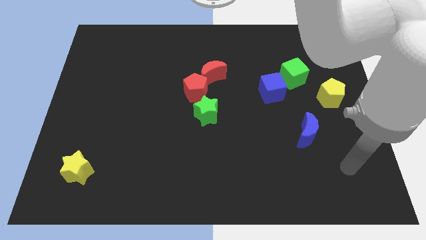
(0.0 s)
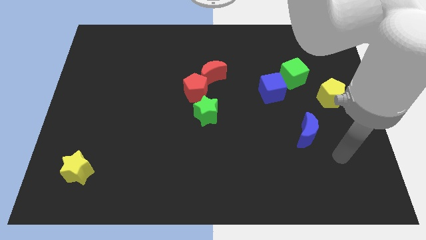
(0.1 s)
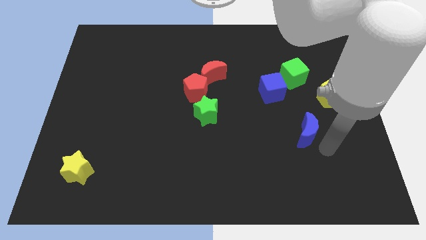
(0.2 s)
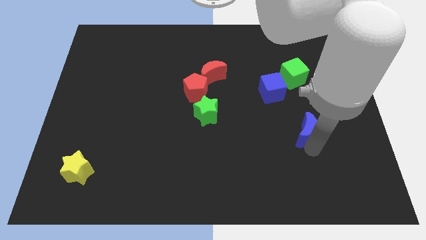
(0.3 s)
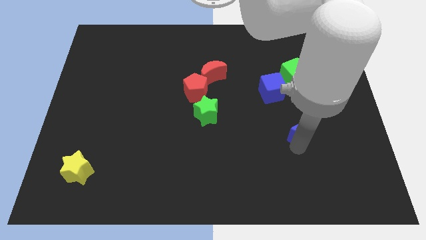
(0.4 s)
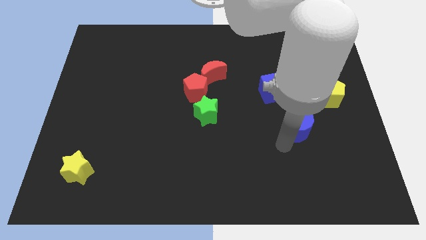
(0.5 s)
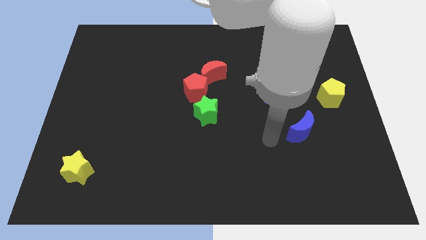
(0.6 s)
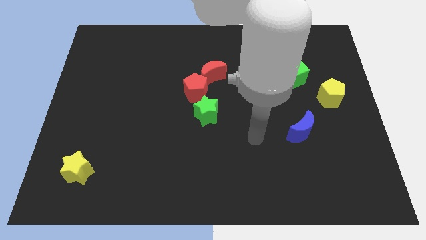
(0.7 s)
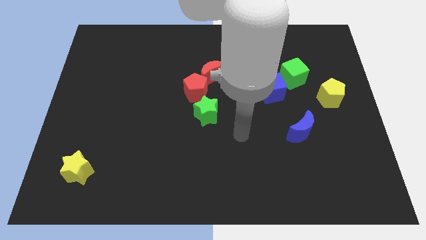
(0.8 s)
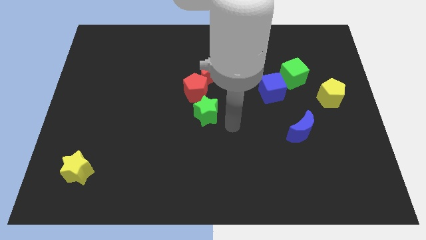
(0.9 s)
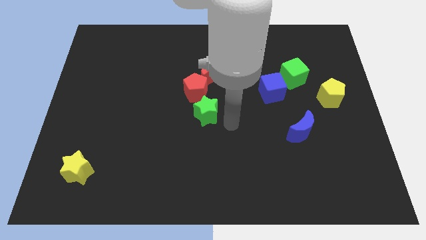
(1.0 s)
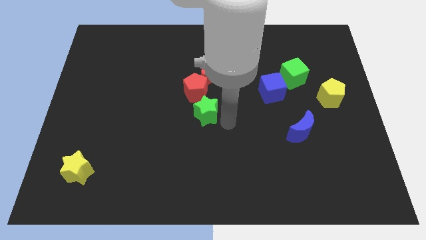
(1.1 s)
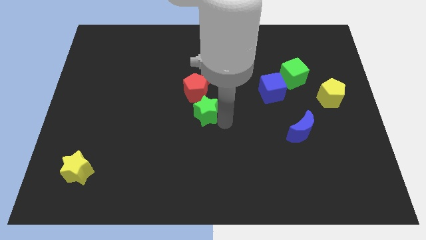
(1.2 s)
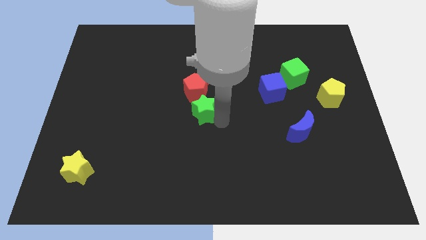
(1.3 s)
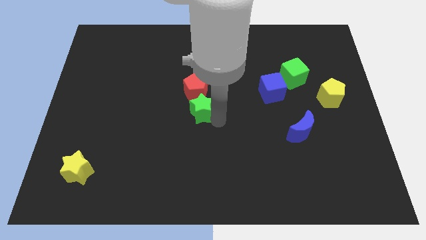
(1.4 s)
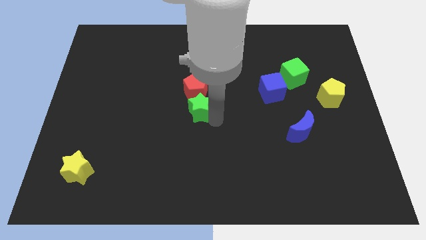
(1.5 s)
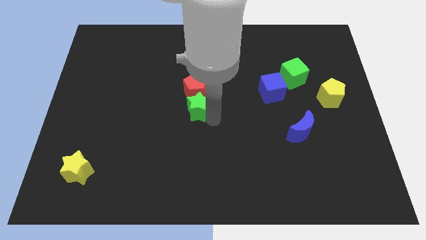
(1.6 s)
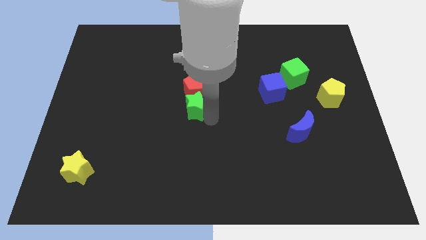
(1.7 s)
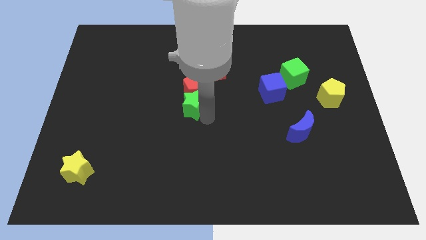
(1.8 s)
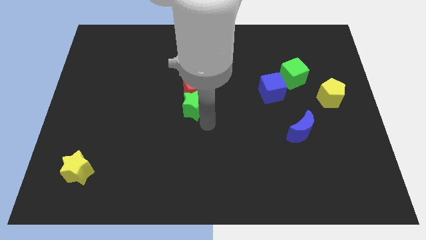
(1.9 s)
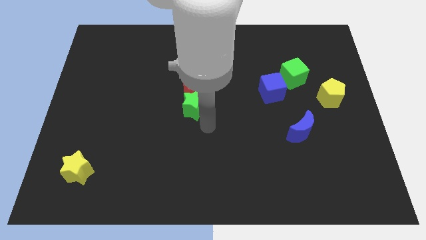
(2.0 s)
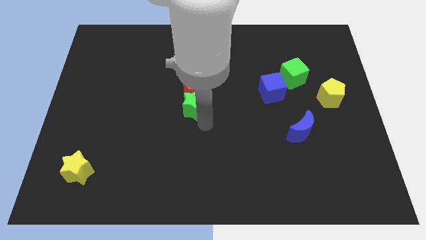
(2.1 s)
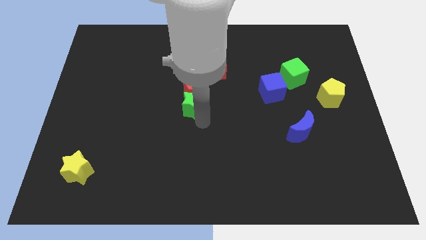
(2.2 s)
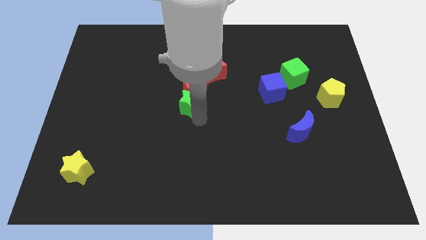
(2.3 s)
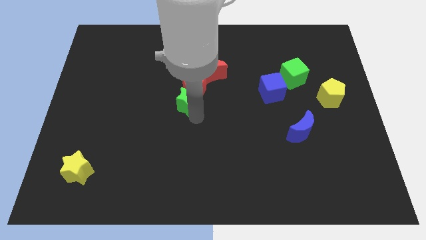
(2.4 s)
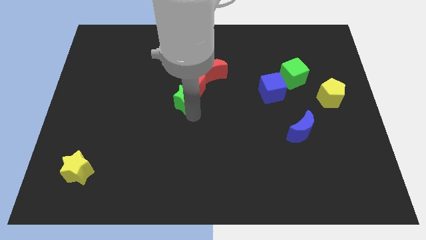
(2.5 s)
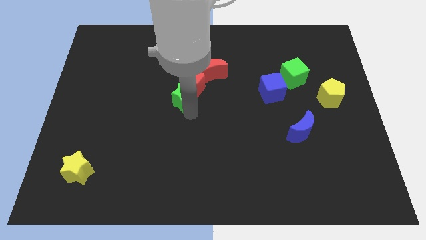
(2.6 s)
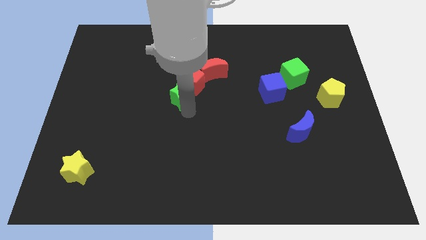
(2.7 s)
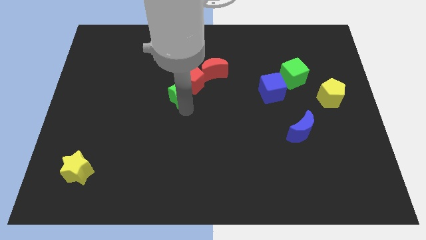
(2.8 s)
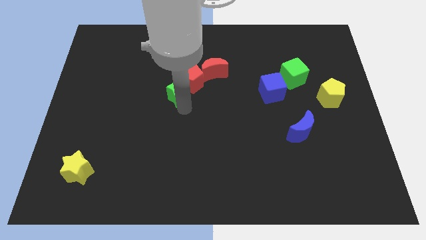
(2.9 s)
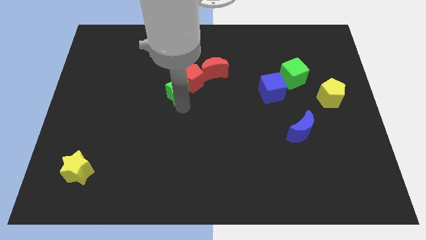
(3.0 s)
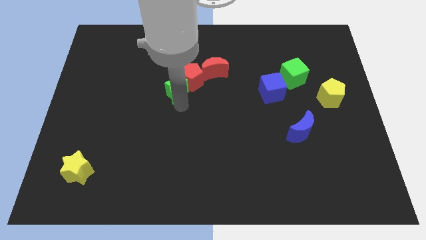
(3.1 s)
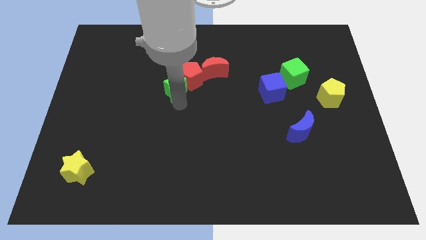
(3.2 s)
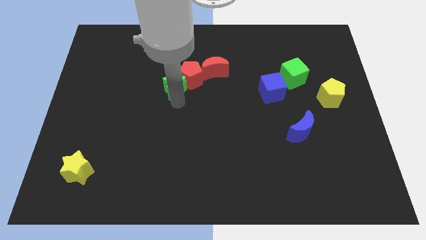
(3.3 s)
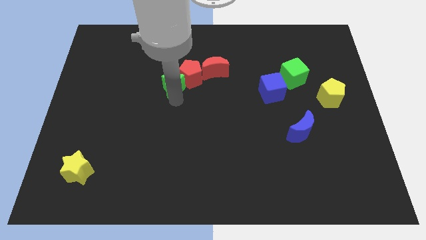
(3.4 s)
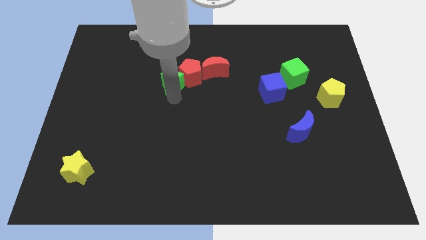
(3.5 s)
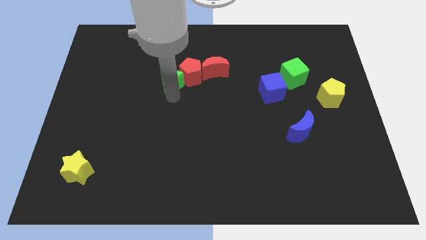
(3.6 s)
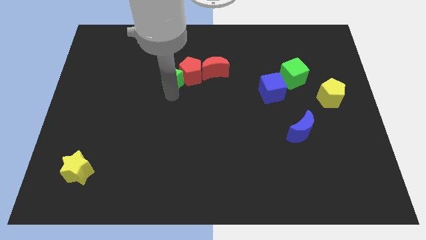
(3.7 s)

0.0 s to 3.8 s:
slide the green star up a little bit

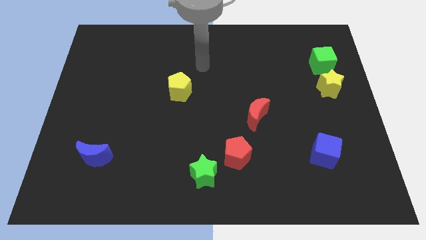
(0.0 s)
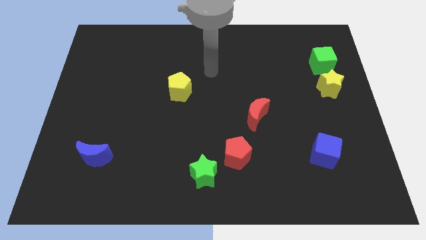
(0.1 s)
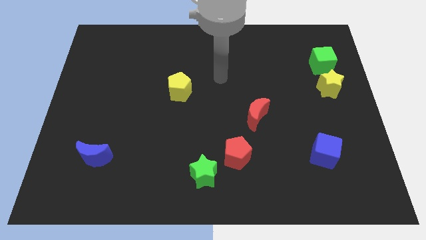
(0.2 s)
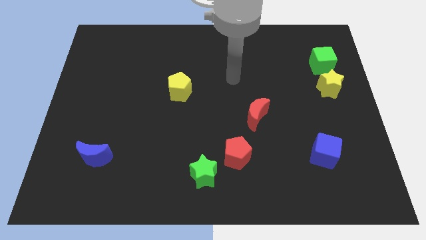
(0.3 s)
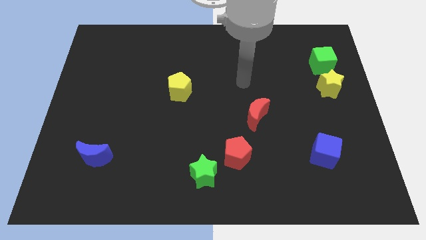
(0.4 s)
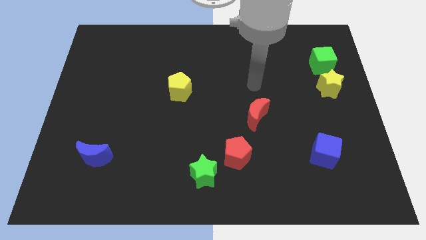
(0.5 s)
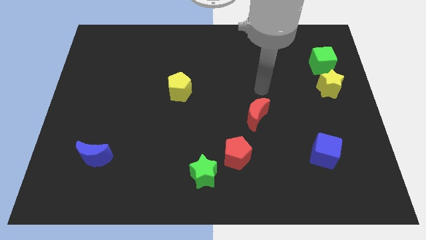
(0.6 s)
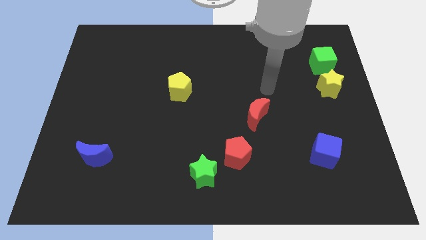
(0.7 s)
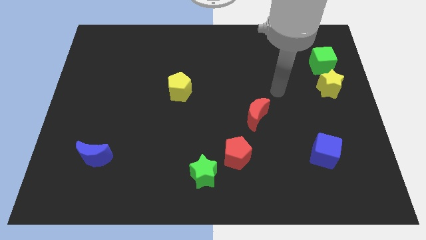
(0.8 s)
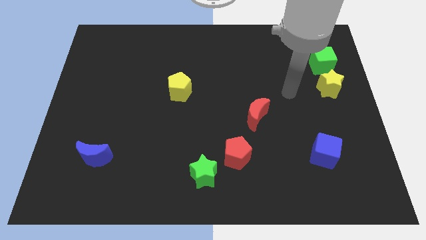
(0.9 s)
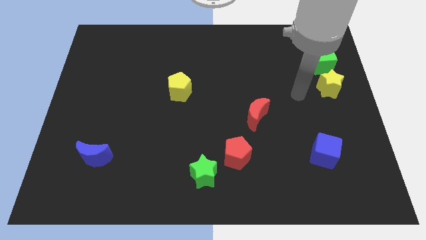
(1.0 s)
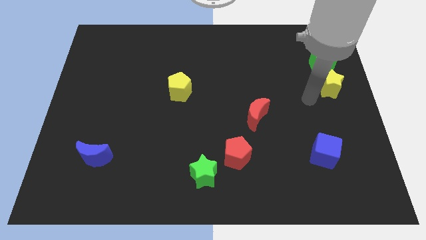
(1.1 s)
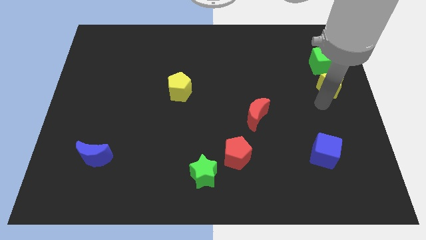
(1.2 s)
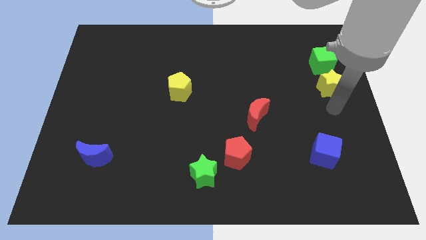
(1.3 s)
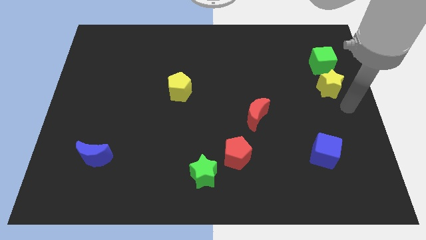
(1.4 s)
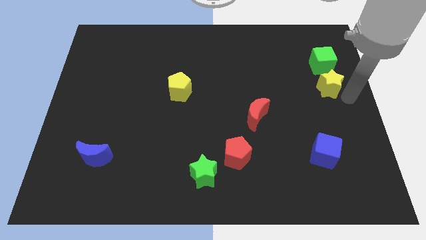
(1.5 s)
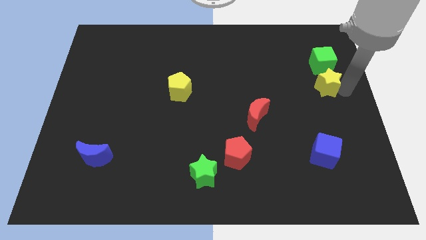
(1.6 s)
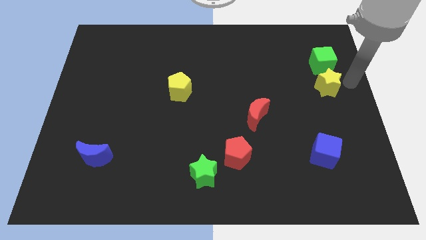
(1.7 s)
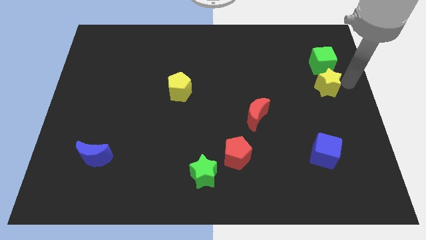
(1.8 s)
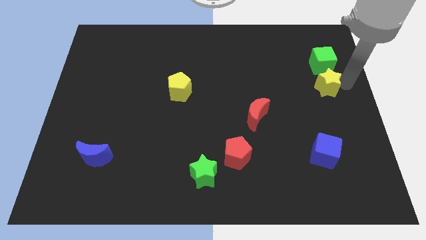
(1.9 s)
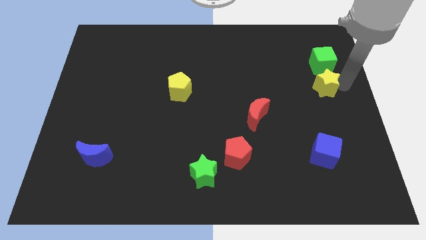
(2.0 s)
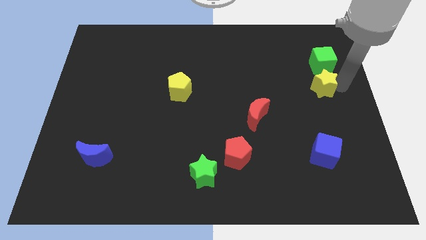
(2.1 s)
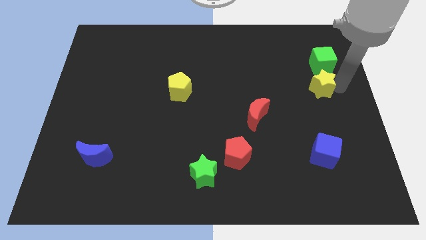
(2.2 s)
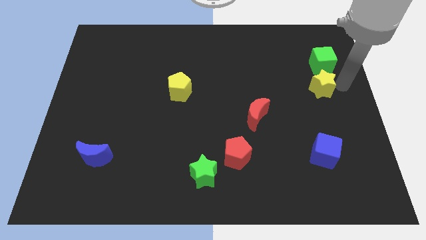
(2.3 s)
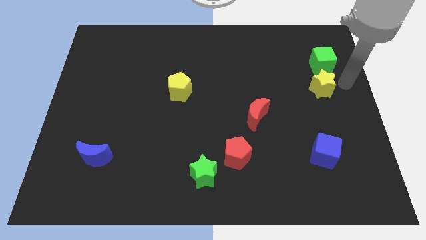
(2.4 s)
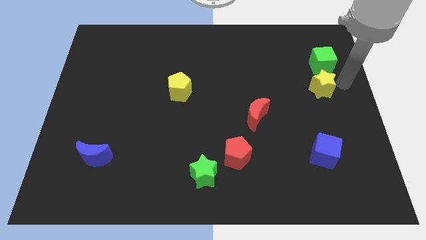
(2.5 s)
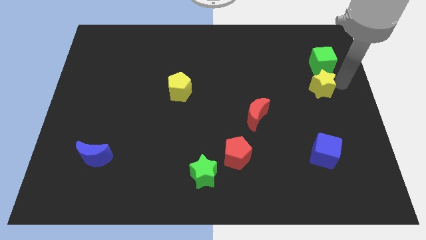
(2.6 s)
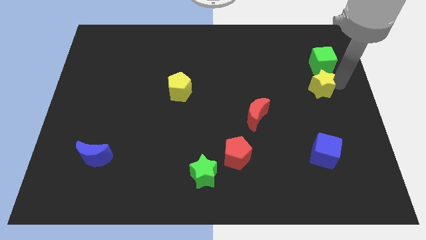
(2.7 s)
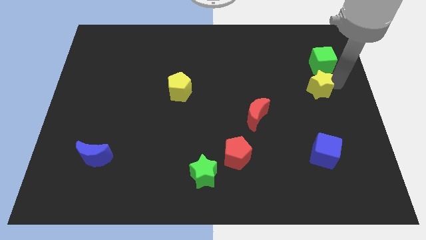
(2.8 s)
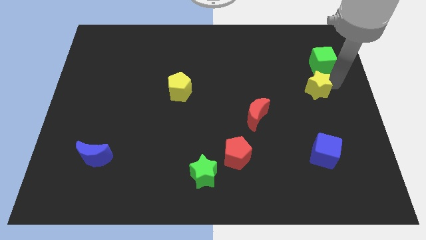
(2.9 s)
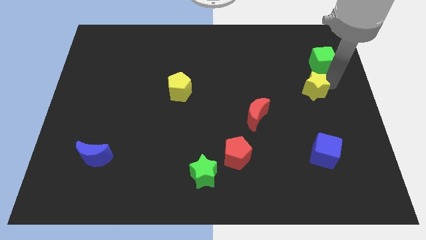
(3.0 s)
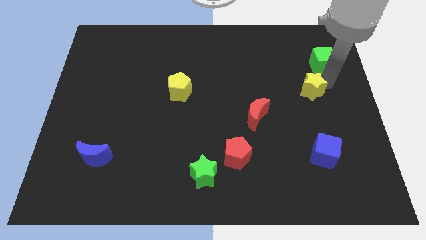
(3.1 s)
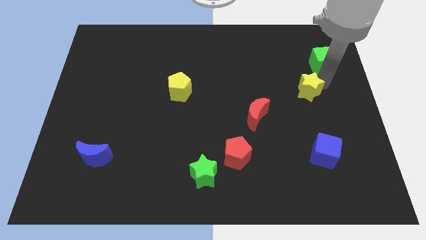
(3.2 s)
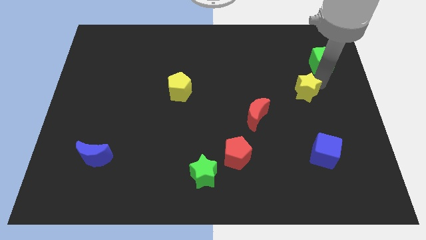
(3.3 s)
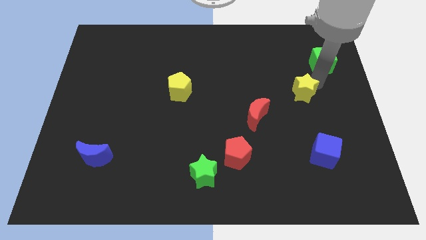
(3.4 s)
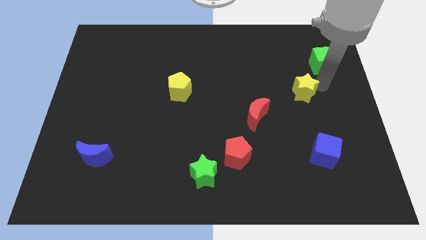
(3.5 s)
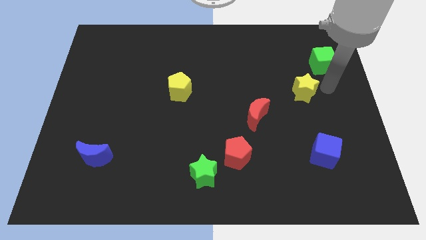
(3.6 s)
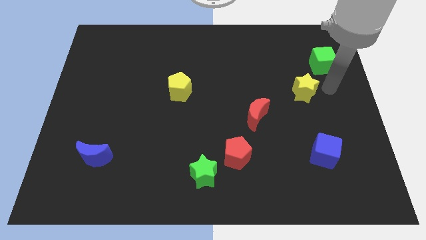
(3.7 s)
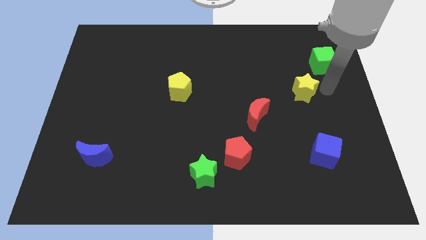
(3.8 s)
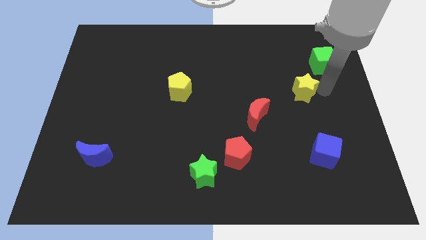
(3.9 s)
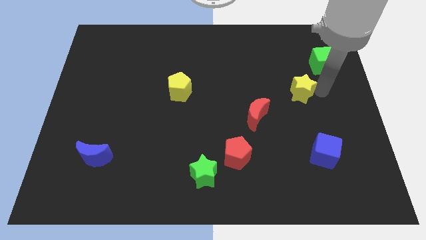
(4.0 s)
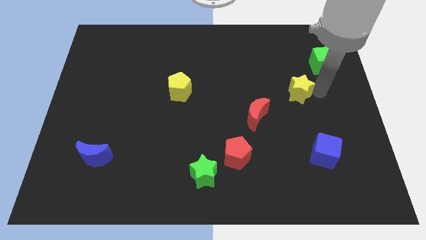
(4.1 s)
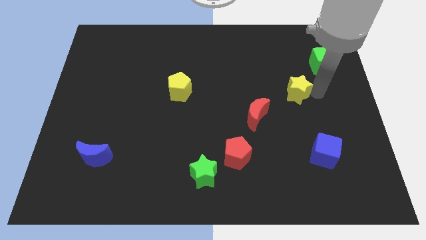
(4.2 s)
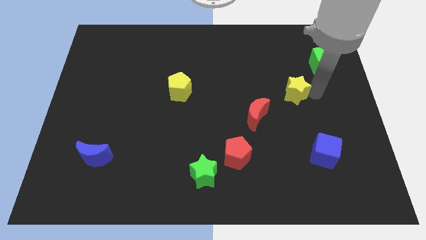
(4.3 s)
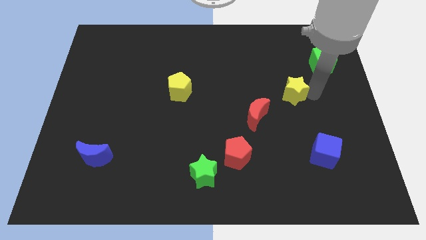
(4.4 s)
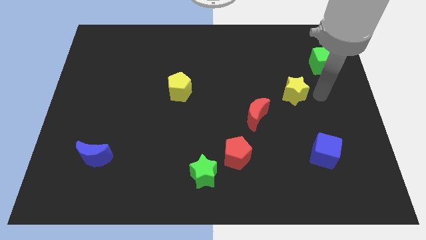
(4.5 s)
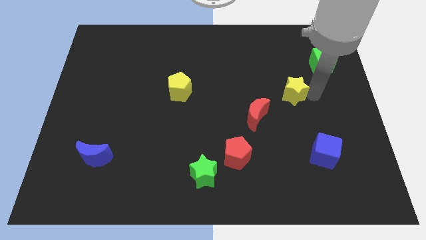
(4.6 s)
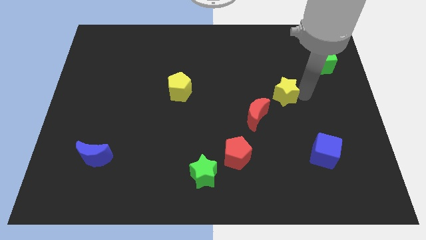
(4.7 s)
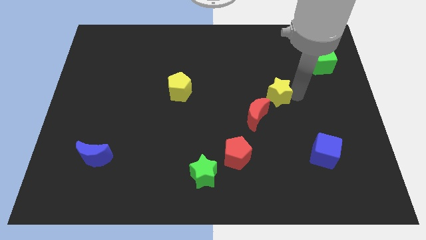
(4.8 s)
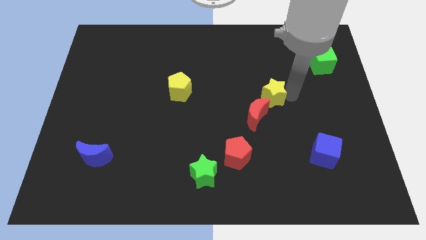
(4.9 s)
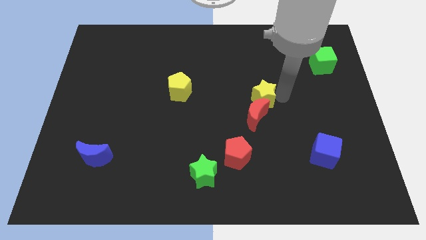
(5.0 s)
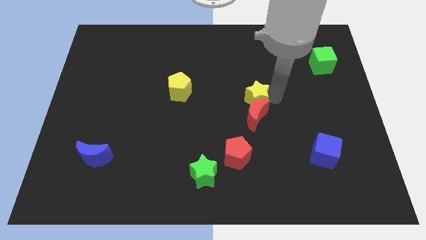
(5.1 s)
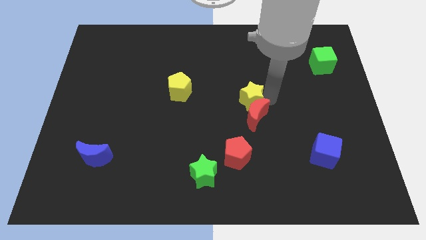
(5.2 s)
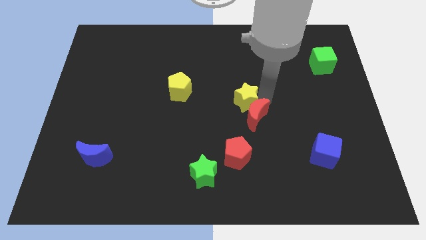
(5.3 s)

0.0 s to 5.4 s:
push the yellow star left
